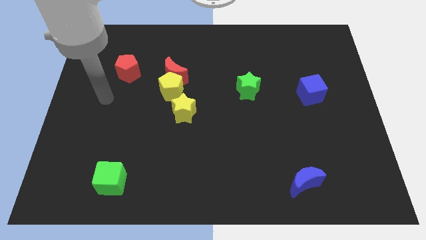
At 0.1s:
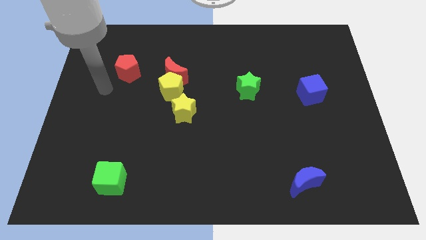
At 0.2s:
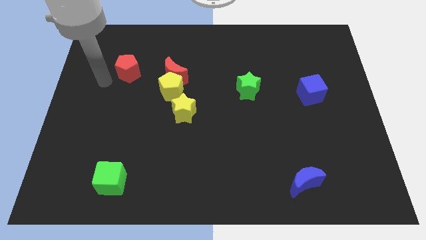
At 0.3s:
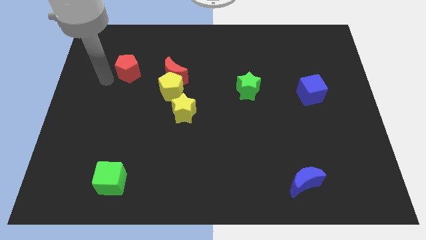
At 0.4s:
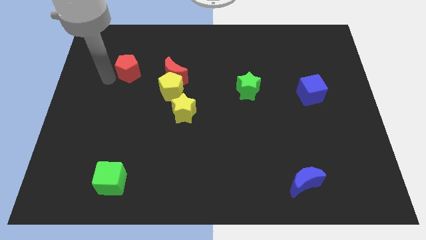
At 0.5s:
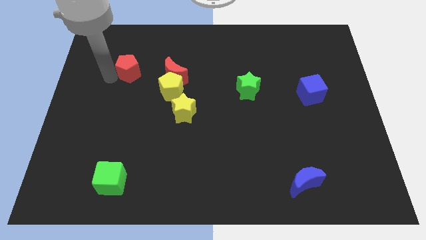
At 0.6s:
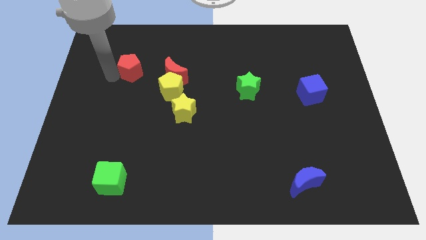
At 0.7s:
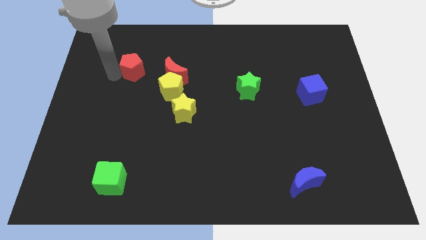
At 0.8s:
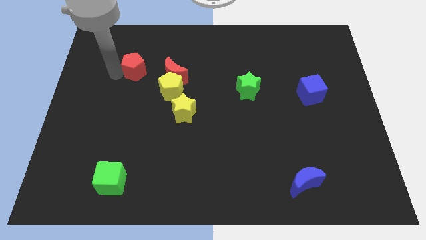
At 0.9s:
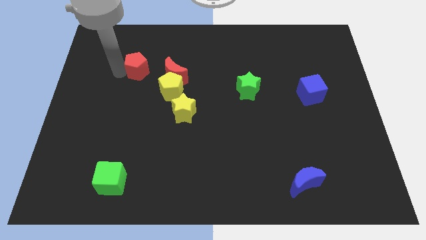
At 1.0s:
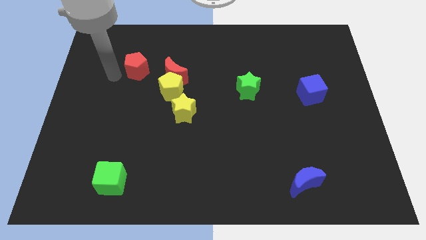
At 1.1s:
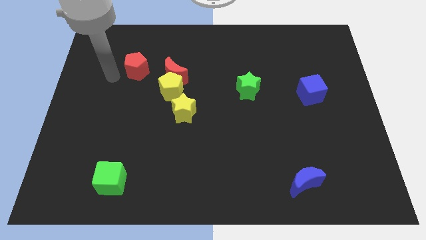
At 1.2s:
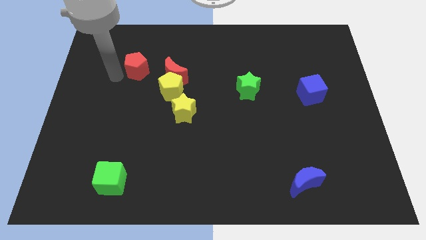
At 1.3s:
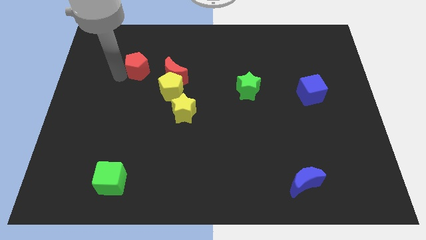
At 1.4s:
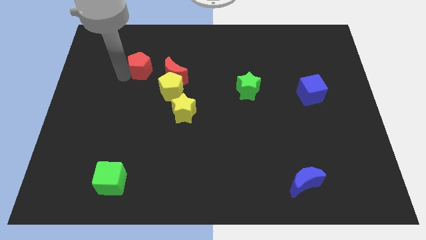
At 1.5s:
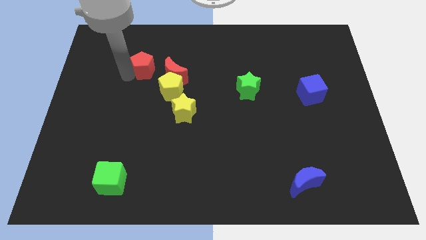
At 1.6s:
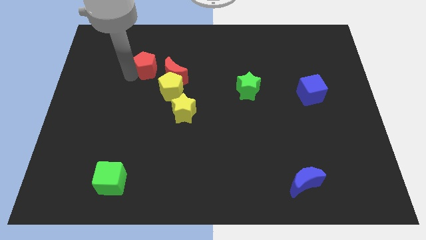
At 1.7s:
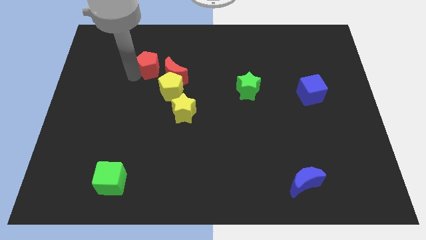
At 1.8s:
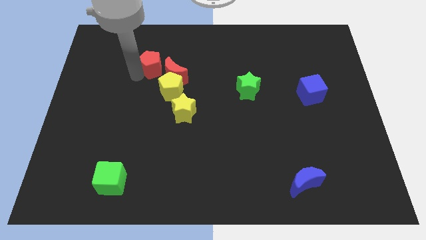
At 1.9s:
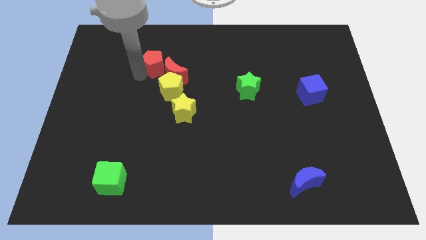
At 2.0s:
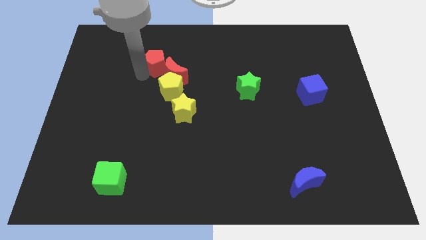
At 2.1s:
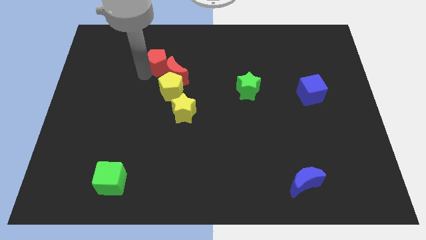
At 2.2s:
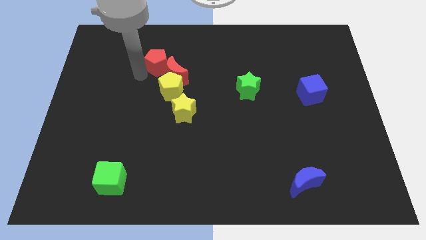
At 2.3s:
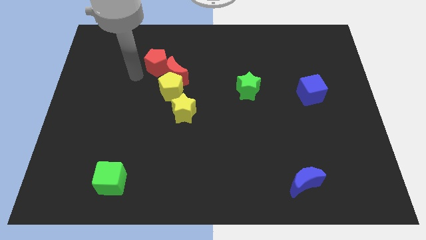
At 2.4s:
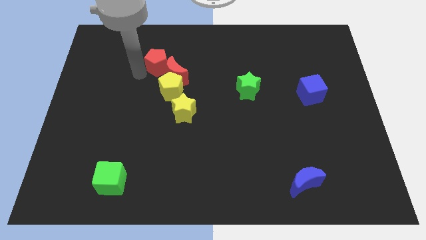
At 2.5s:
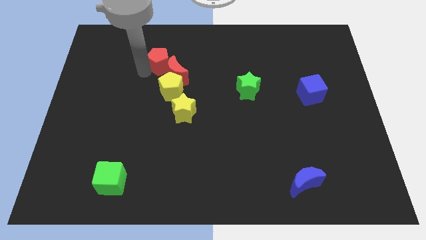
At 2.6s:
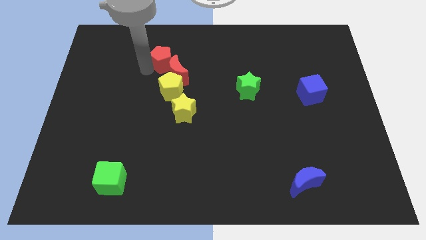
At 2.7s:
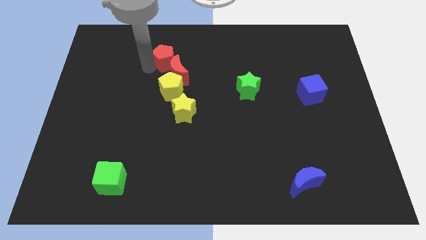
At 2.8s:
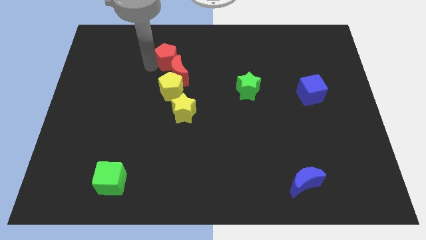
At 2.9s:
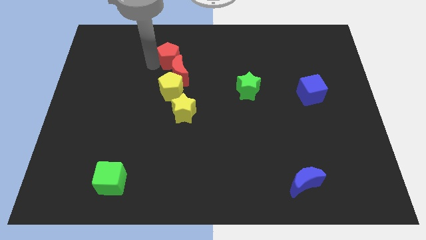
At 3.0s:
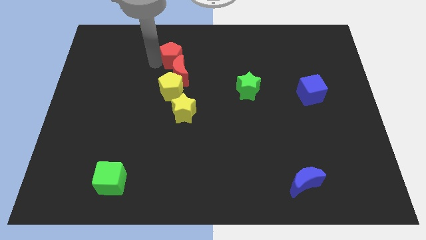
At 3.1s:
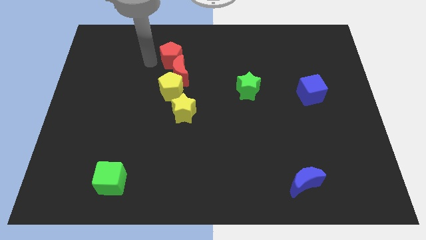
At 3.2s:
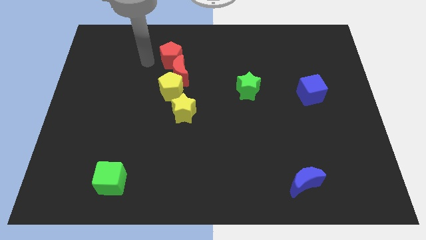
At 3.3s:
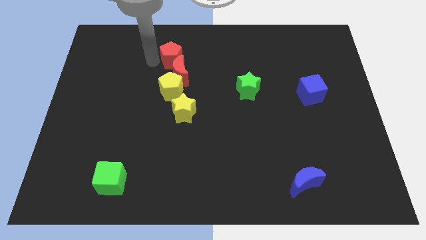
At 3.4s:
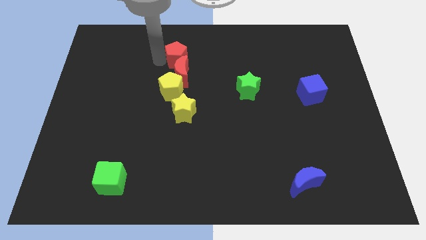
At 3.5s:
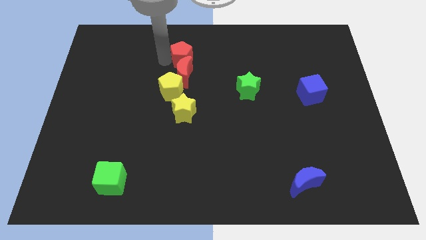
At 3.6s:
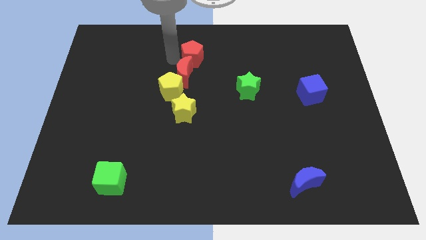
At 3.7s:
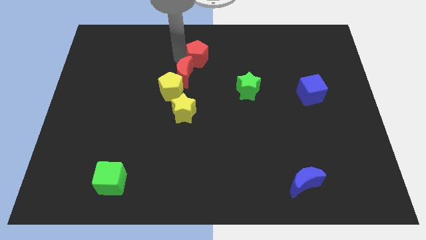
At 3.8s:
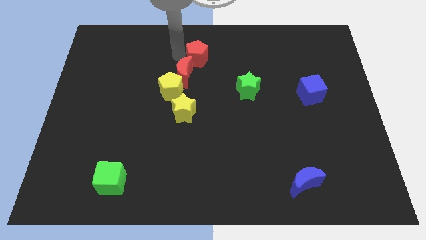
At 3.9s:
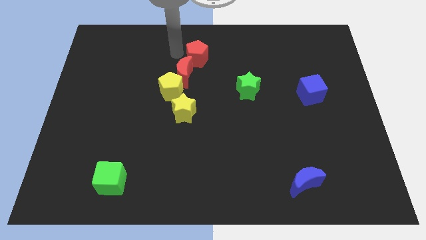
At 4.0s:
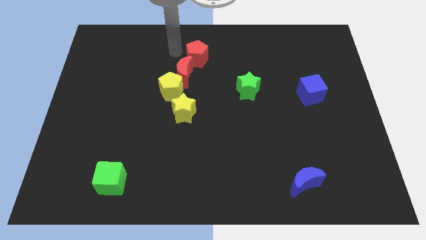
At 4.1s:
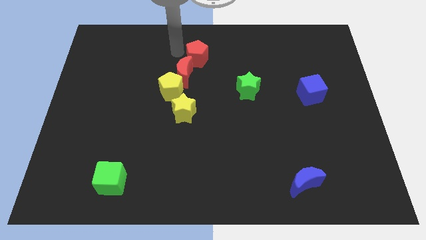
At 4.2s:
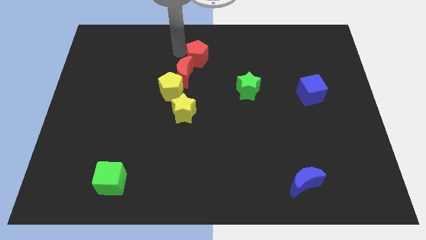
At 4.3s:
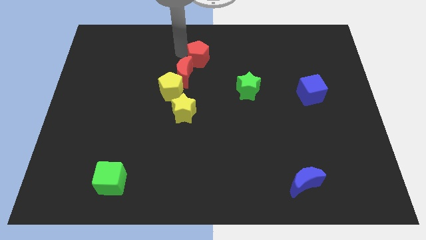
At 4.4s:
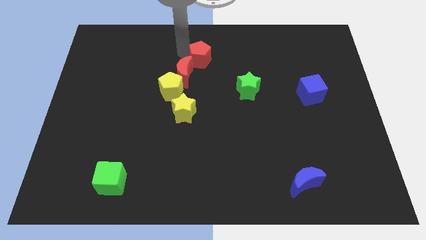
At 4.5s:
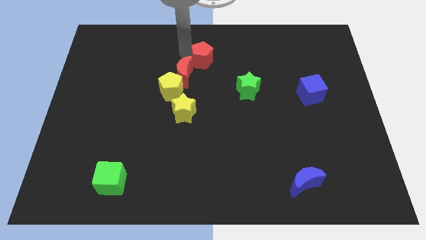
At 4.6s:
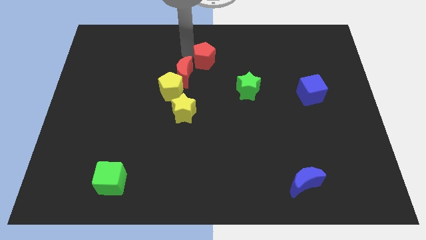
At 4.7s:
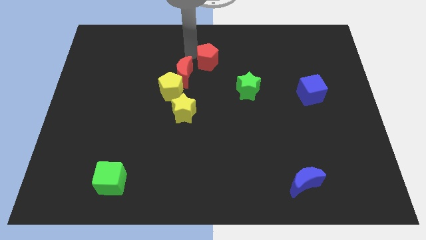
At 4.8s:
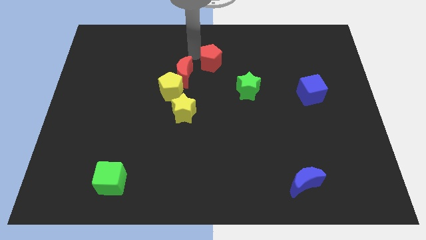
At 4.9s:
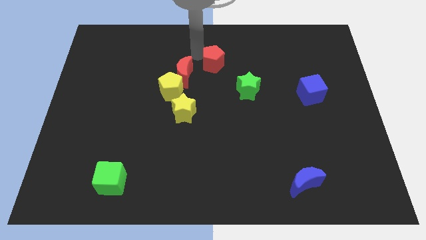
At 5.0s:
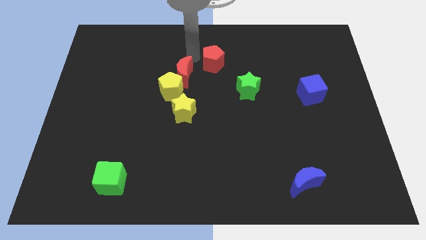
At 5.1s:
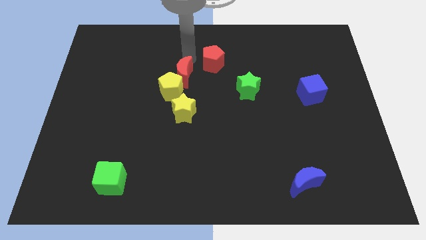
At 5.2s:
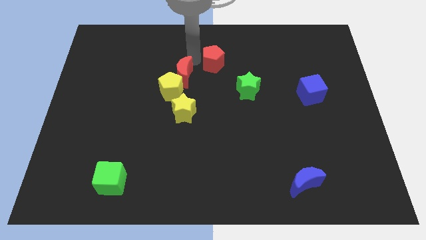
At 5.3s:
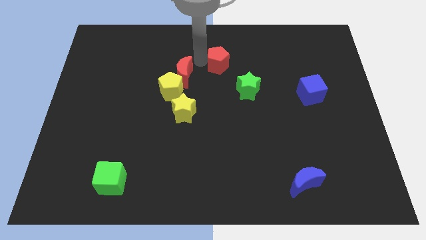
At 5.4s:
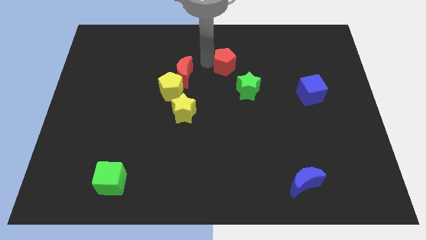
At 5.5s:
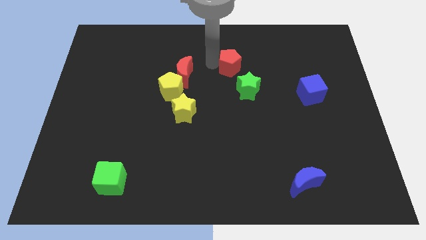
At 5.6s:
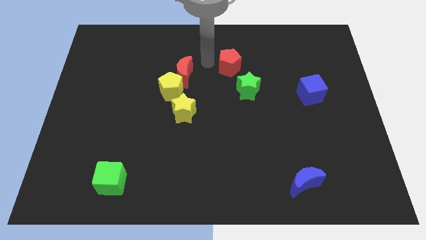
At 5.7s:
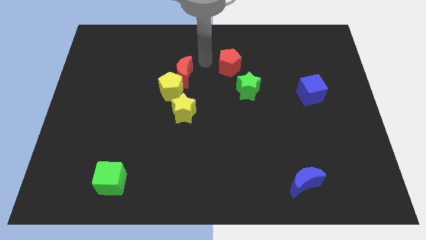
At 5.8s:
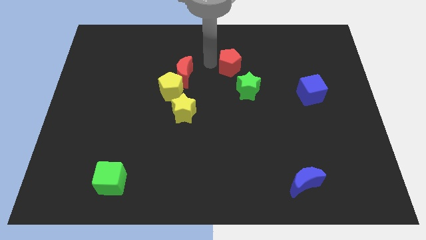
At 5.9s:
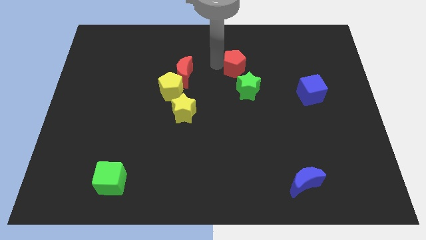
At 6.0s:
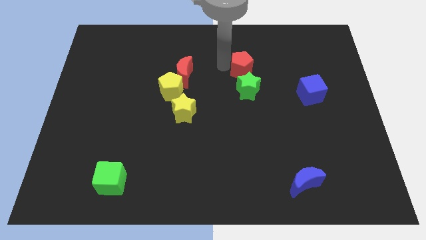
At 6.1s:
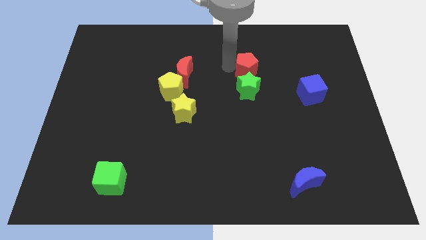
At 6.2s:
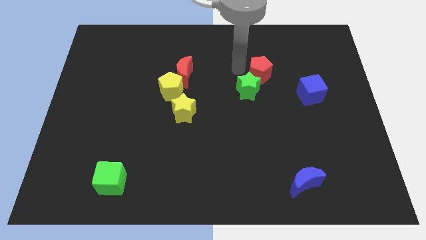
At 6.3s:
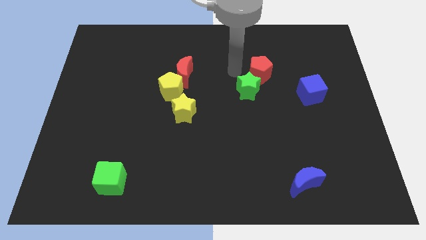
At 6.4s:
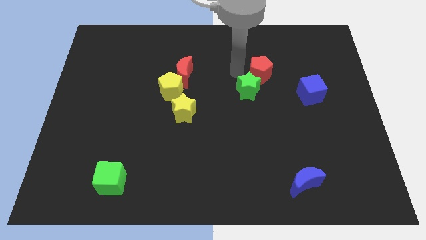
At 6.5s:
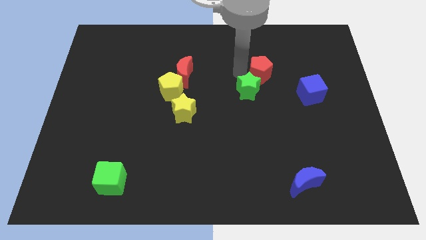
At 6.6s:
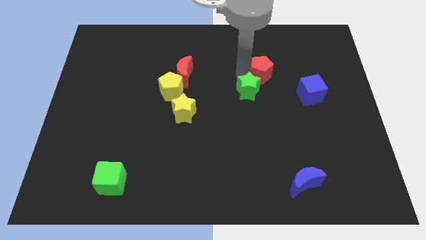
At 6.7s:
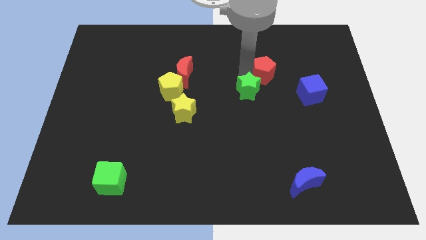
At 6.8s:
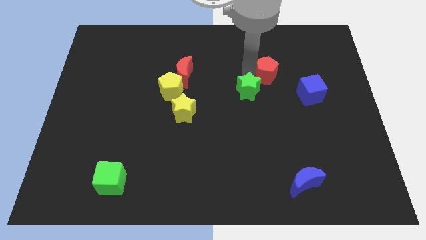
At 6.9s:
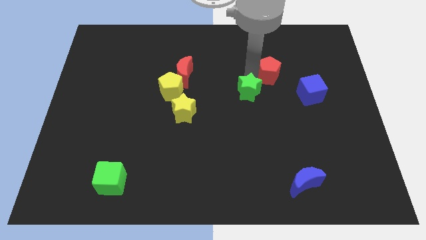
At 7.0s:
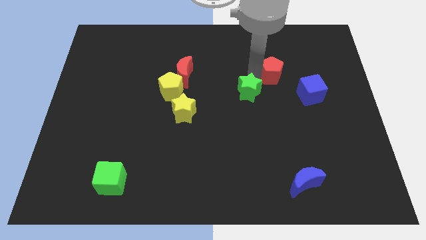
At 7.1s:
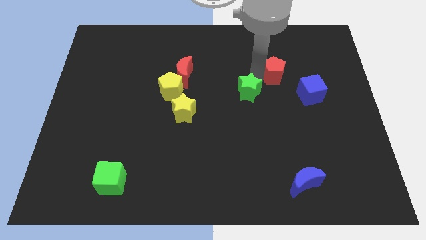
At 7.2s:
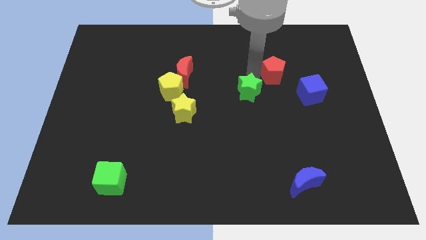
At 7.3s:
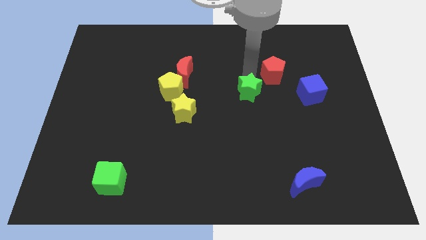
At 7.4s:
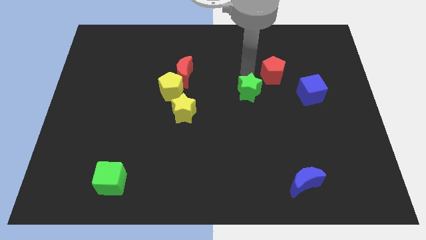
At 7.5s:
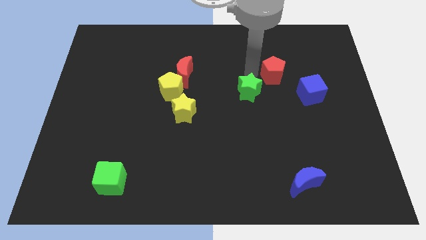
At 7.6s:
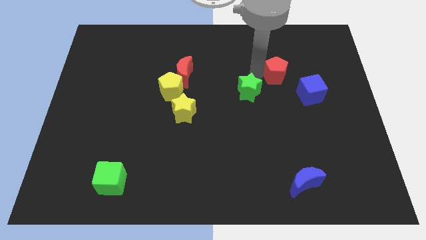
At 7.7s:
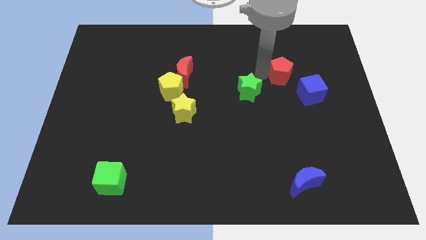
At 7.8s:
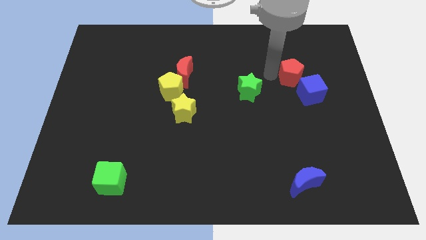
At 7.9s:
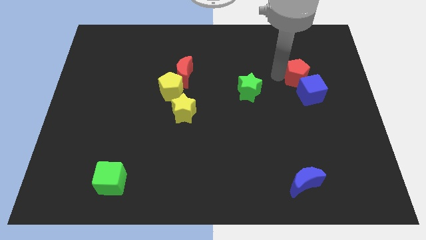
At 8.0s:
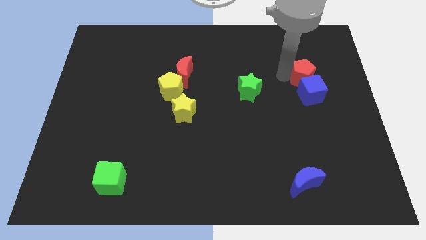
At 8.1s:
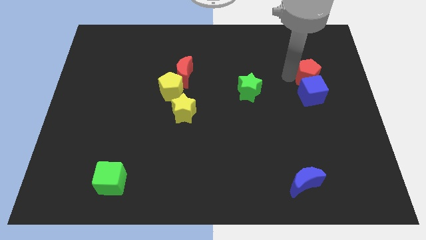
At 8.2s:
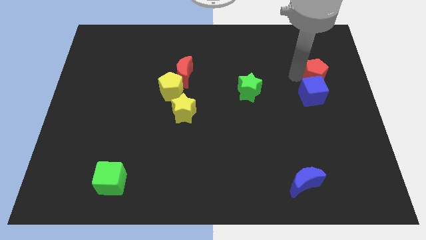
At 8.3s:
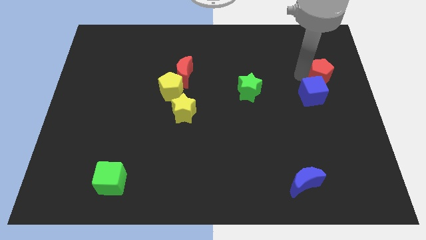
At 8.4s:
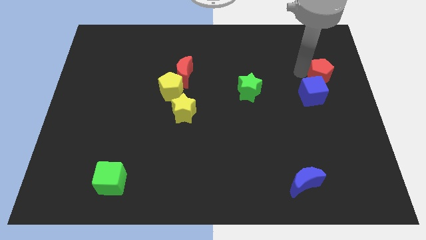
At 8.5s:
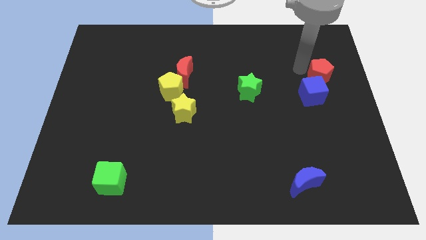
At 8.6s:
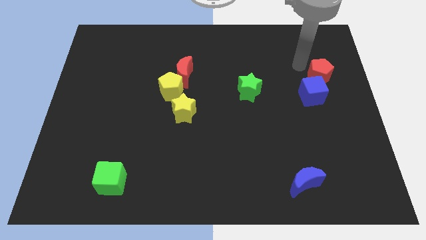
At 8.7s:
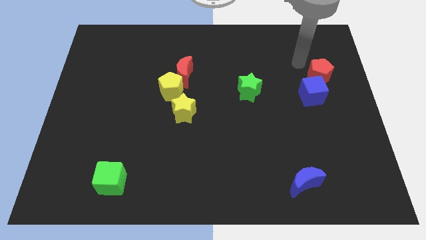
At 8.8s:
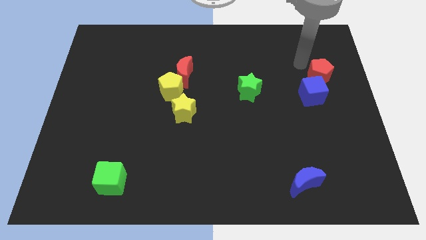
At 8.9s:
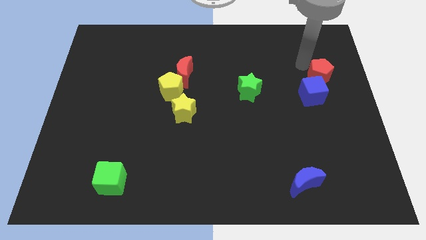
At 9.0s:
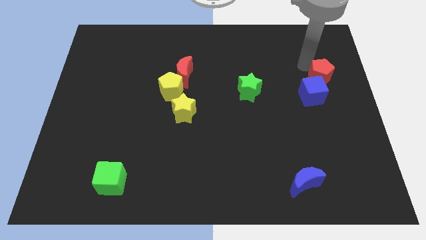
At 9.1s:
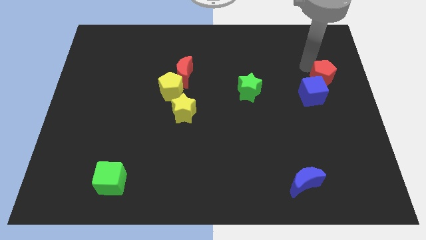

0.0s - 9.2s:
slide the red pentagon to the right side of the board
